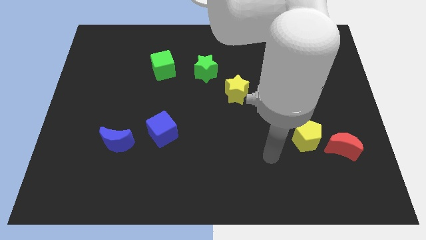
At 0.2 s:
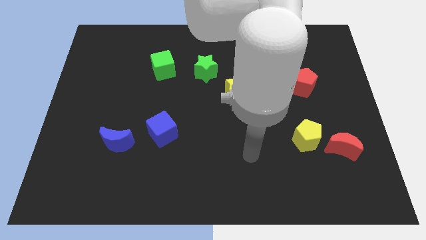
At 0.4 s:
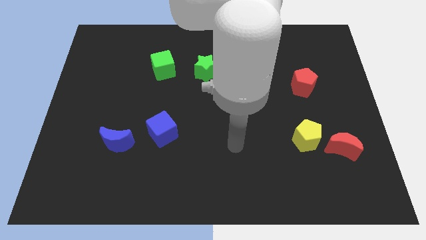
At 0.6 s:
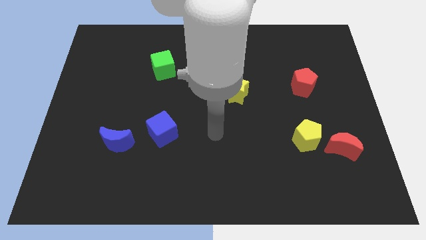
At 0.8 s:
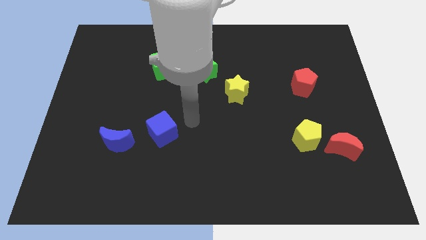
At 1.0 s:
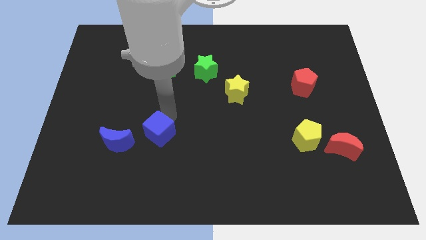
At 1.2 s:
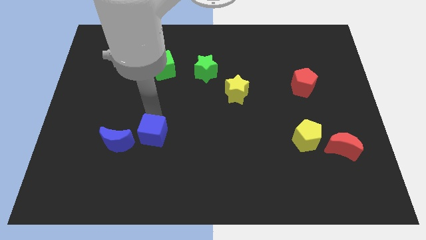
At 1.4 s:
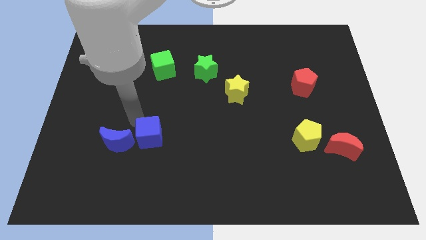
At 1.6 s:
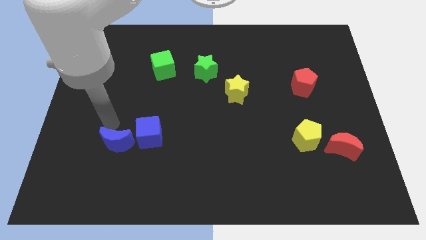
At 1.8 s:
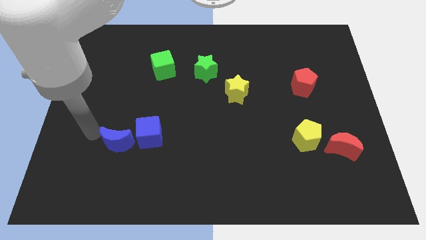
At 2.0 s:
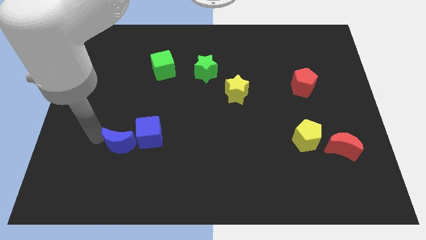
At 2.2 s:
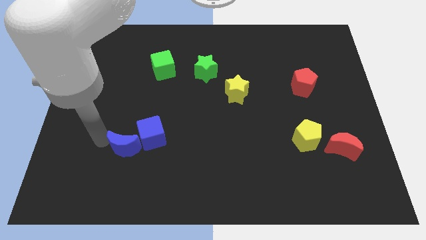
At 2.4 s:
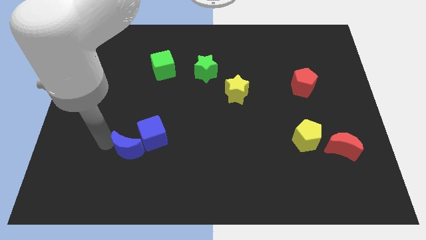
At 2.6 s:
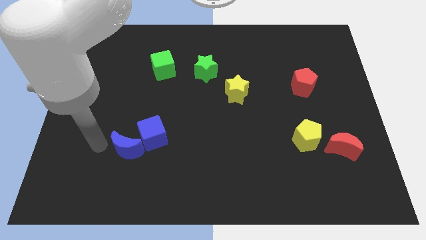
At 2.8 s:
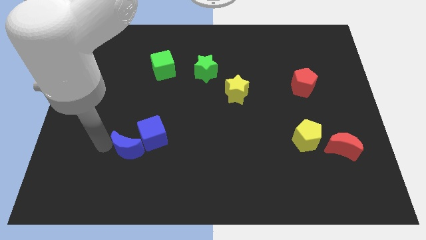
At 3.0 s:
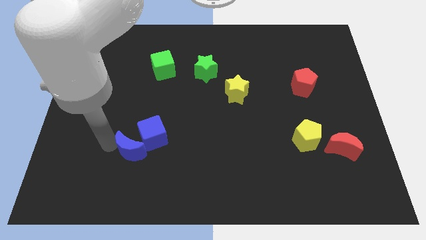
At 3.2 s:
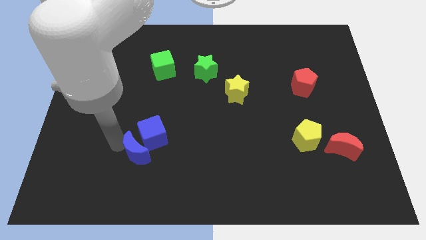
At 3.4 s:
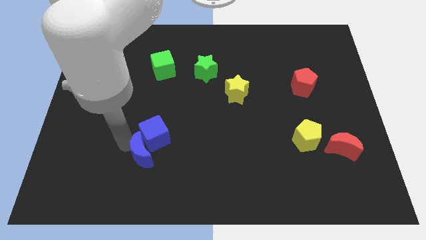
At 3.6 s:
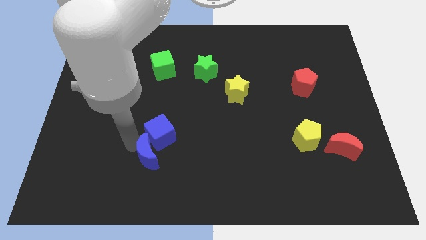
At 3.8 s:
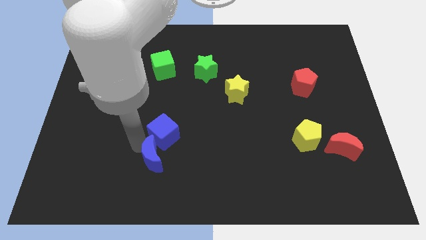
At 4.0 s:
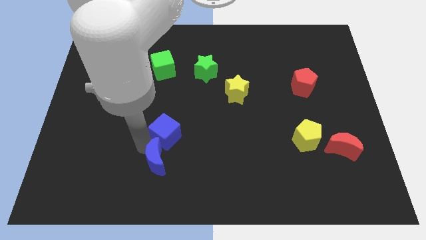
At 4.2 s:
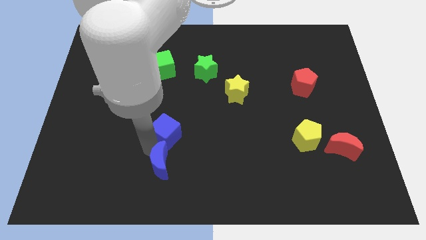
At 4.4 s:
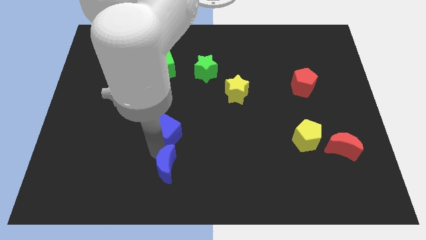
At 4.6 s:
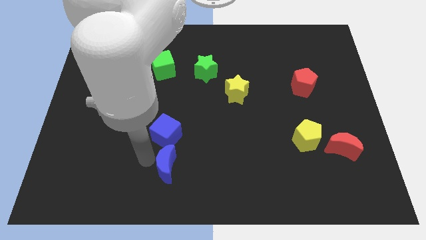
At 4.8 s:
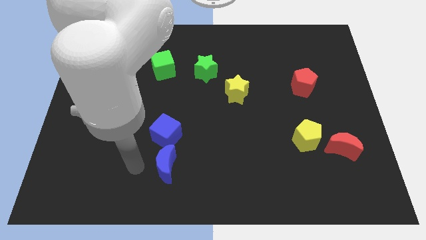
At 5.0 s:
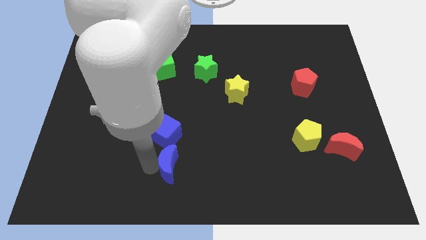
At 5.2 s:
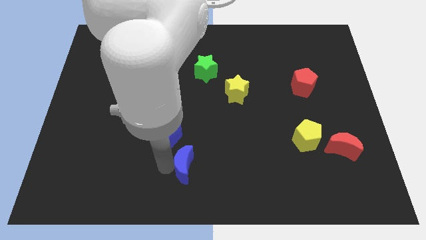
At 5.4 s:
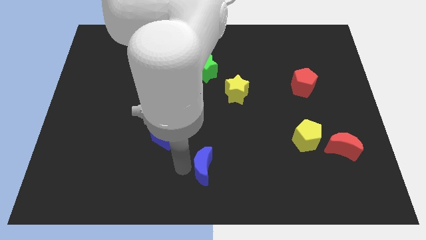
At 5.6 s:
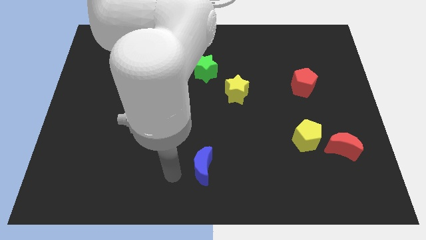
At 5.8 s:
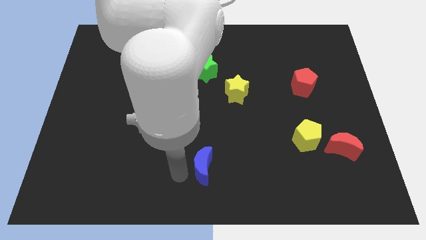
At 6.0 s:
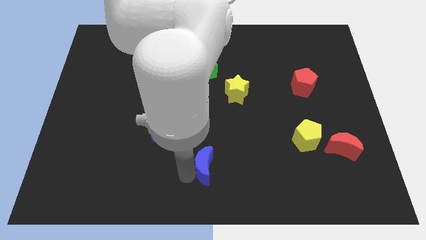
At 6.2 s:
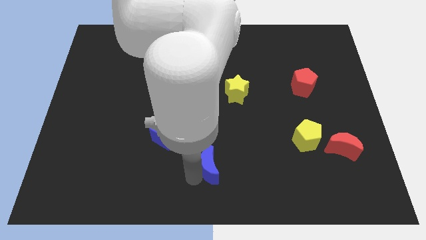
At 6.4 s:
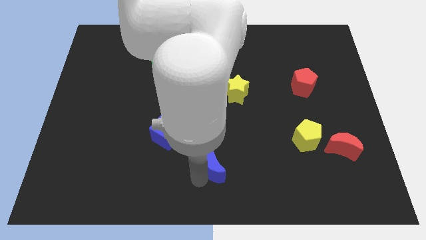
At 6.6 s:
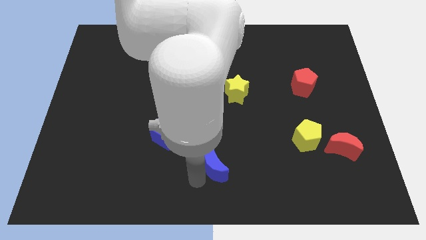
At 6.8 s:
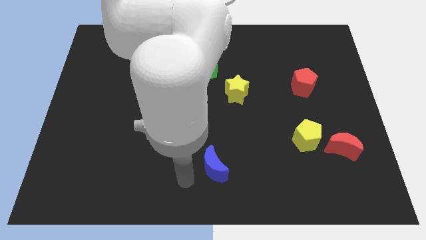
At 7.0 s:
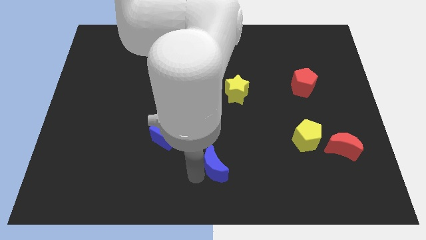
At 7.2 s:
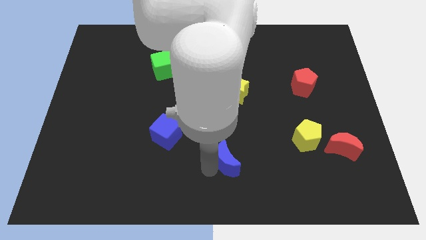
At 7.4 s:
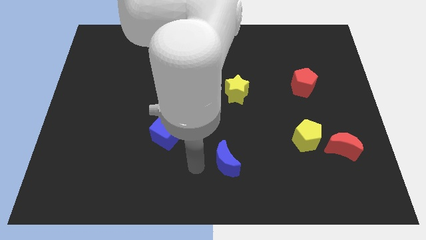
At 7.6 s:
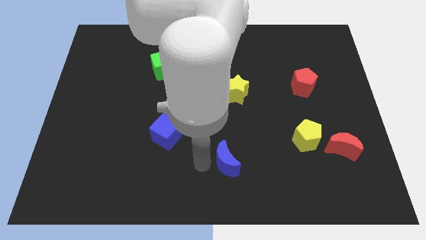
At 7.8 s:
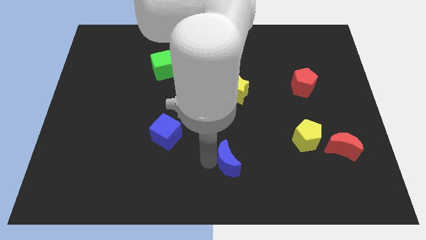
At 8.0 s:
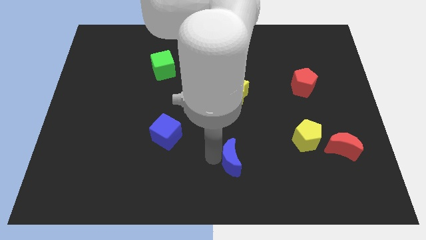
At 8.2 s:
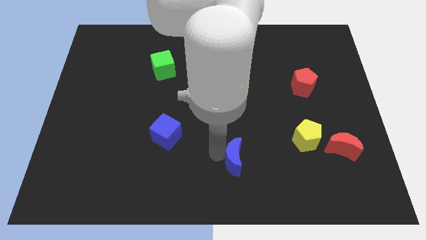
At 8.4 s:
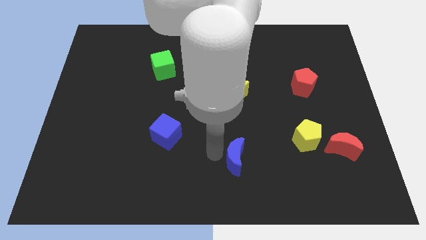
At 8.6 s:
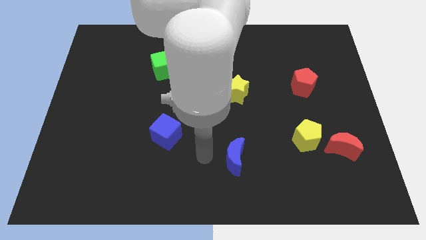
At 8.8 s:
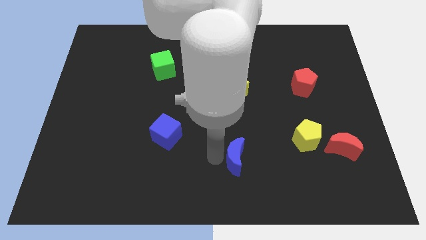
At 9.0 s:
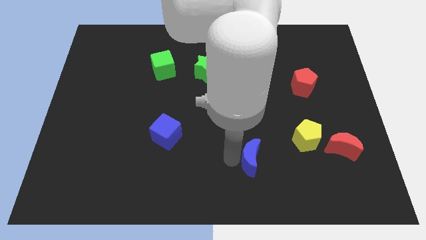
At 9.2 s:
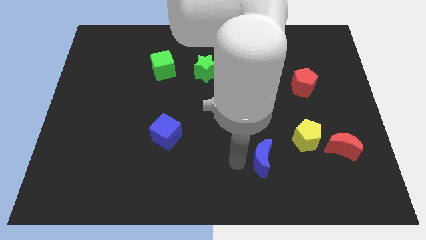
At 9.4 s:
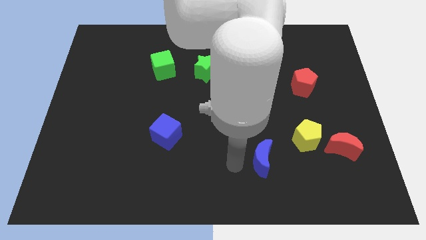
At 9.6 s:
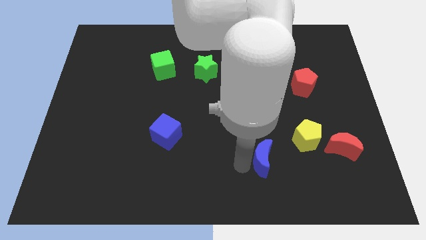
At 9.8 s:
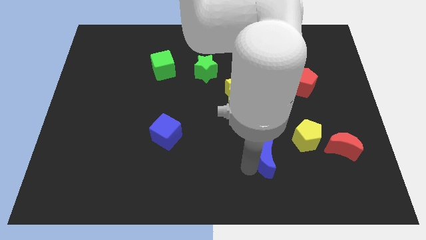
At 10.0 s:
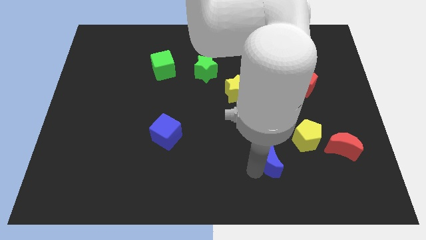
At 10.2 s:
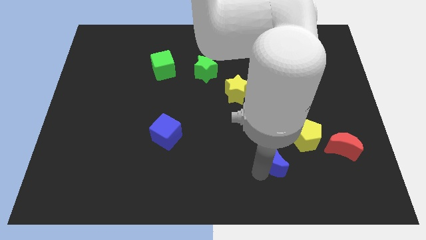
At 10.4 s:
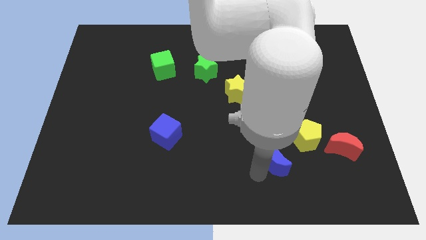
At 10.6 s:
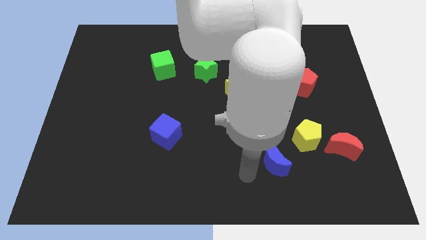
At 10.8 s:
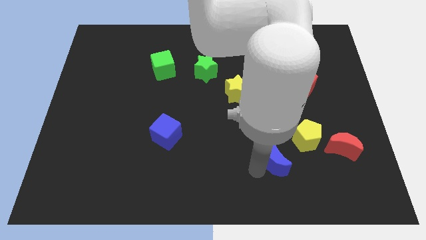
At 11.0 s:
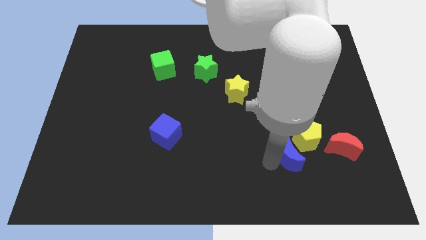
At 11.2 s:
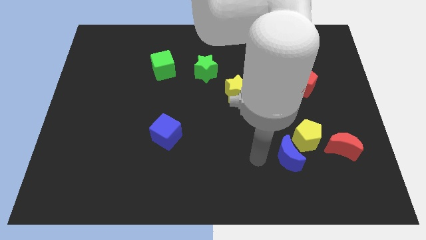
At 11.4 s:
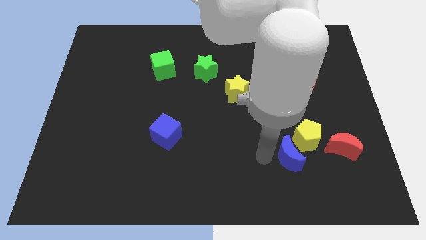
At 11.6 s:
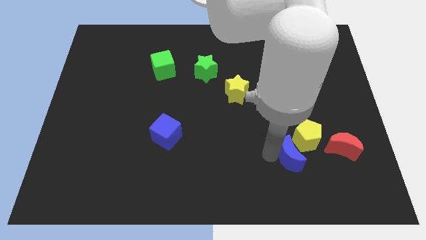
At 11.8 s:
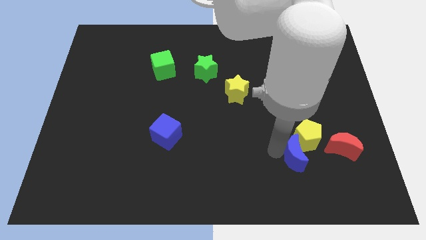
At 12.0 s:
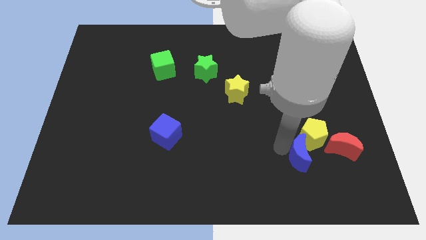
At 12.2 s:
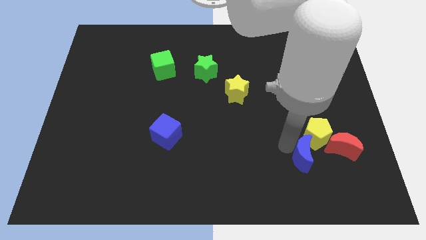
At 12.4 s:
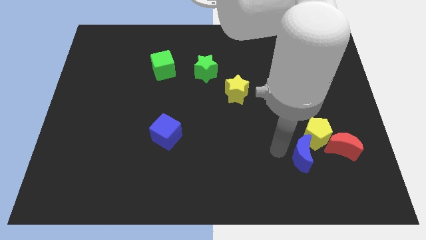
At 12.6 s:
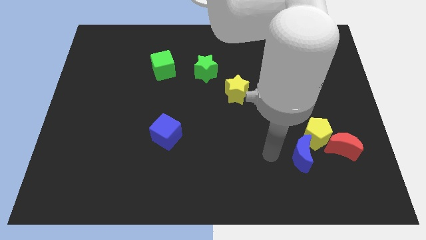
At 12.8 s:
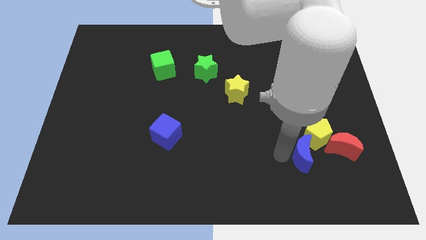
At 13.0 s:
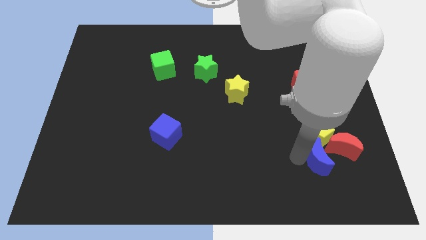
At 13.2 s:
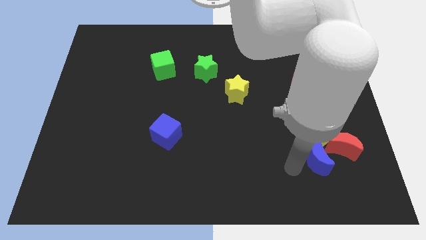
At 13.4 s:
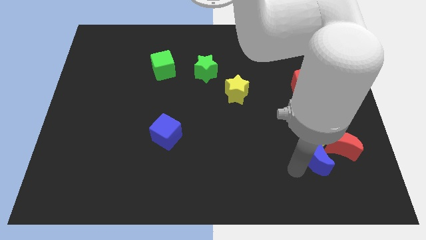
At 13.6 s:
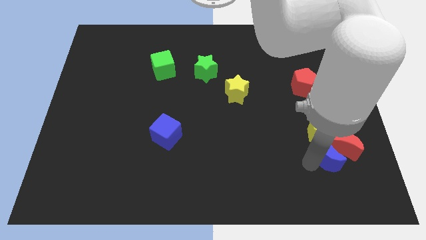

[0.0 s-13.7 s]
move the blue moon close to the red moon

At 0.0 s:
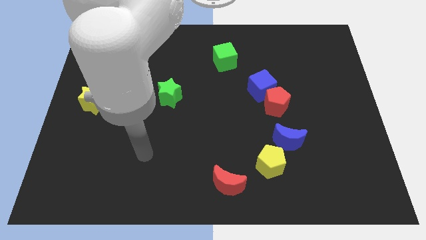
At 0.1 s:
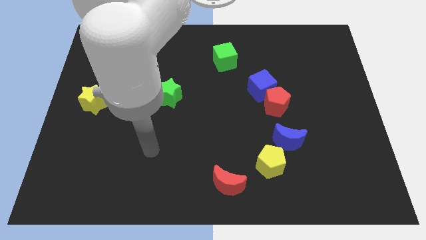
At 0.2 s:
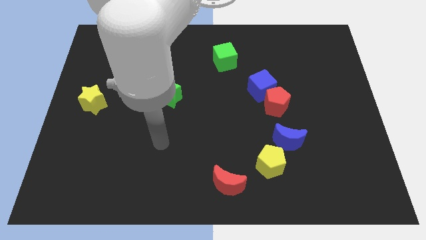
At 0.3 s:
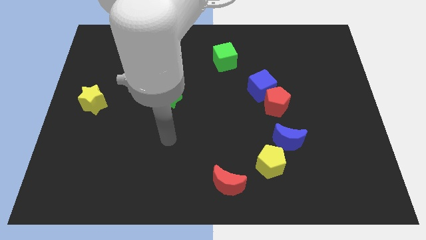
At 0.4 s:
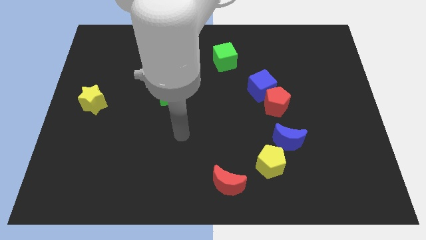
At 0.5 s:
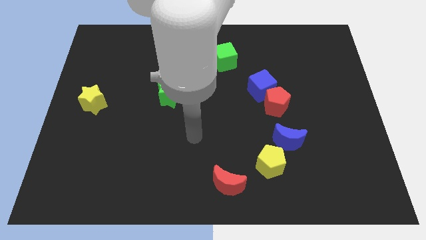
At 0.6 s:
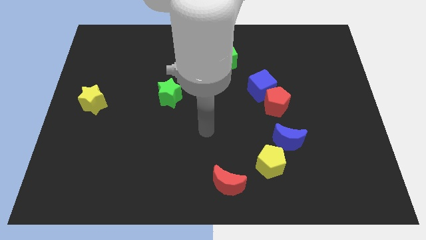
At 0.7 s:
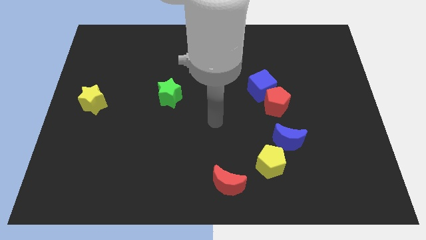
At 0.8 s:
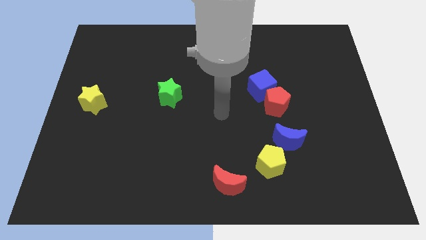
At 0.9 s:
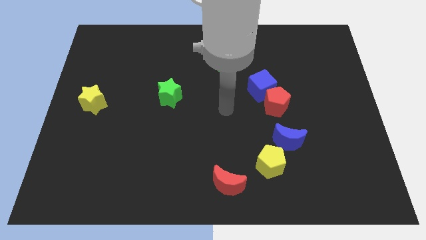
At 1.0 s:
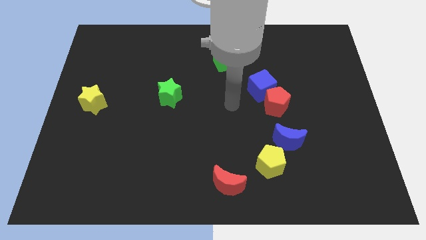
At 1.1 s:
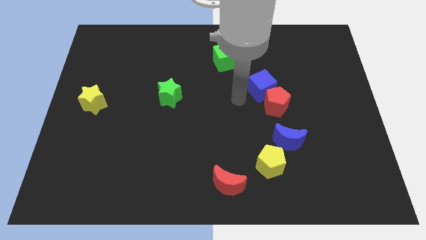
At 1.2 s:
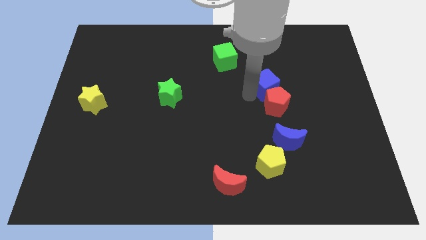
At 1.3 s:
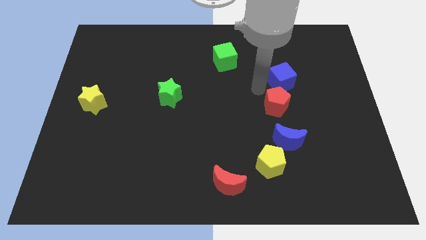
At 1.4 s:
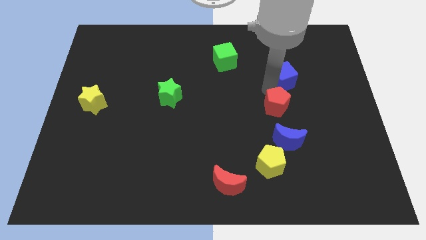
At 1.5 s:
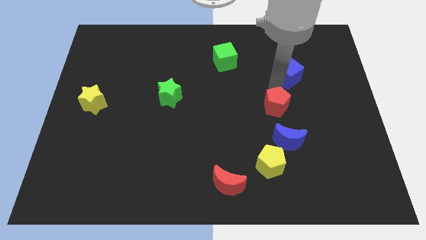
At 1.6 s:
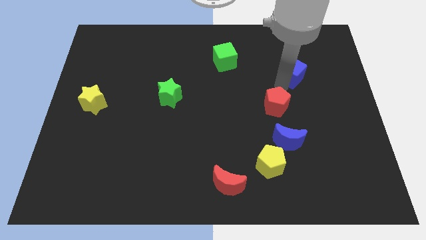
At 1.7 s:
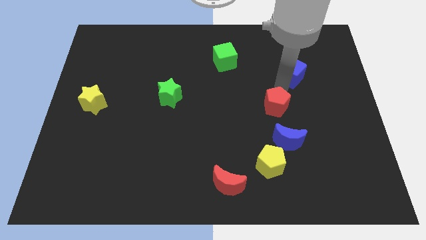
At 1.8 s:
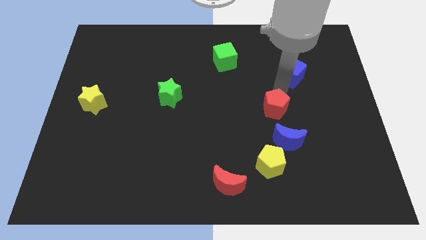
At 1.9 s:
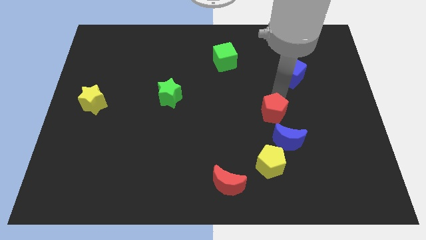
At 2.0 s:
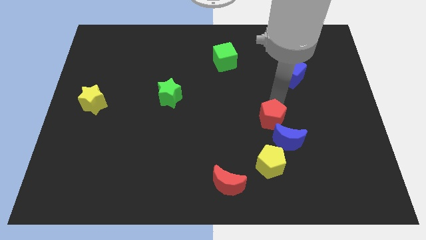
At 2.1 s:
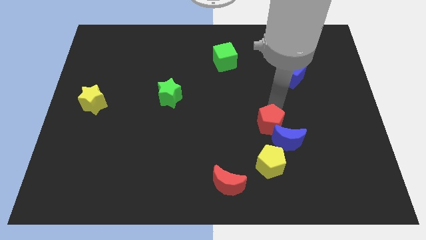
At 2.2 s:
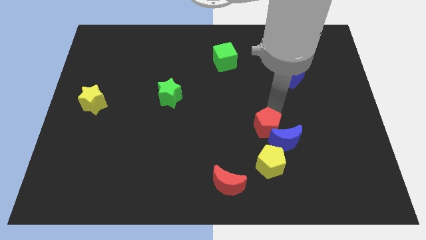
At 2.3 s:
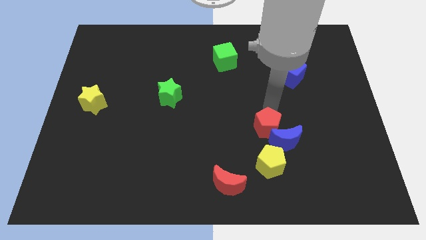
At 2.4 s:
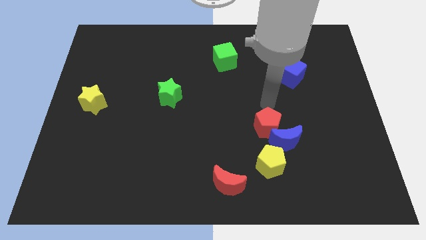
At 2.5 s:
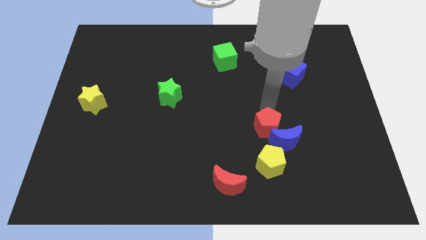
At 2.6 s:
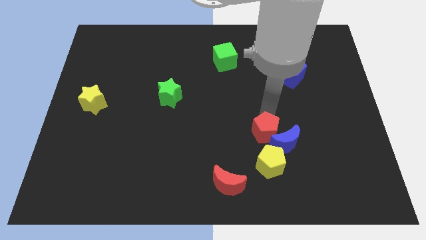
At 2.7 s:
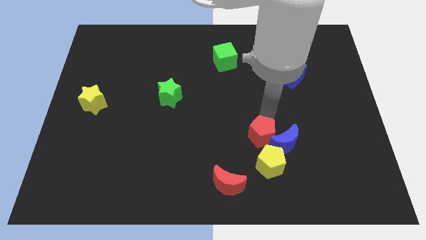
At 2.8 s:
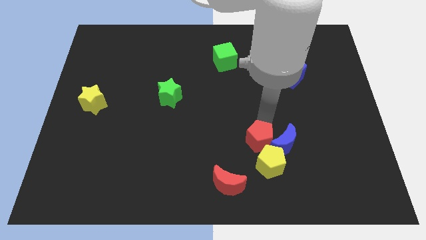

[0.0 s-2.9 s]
move the red pentagon towards the yellow pentagon
